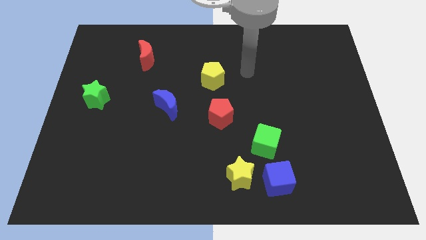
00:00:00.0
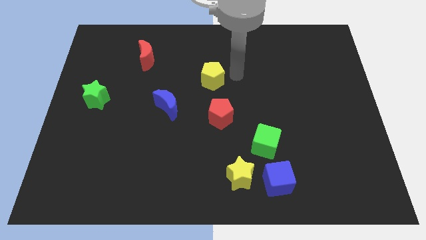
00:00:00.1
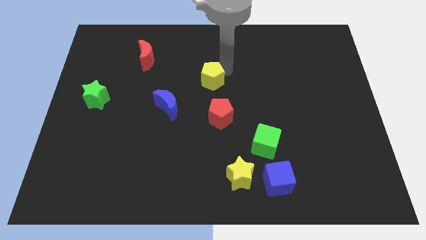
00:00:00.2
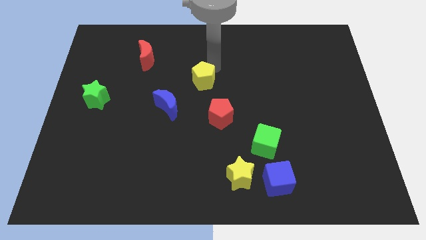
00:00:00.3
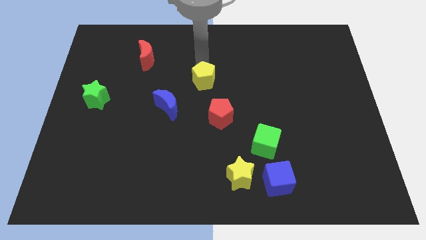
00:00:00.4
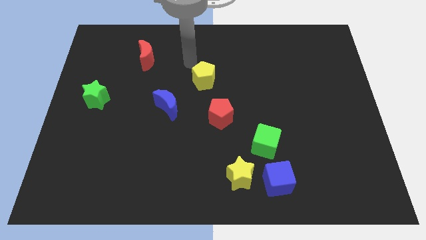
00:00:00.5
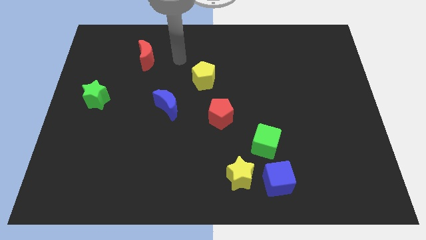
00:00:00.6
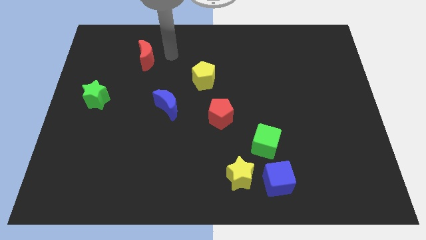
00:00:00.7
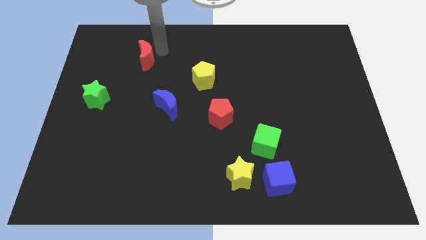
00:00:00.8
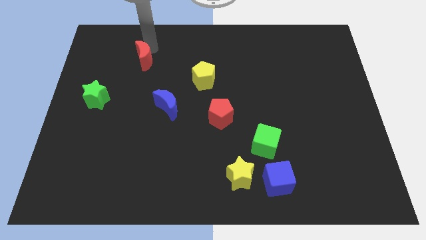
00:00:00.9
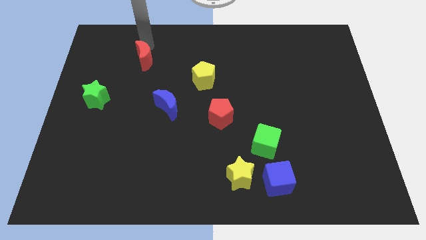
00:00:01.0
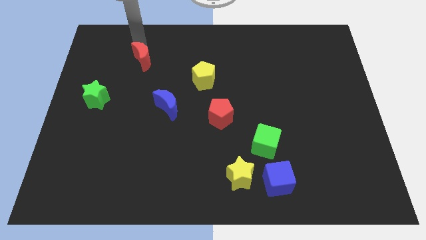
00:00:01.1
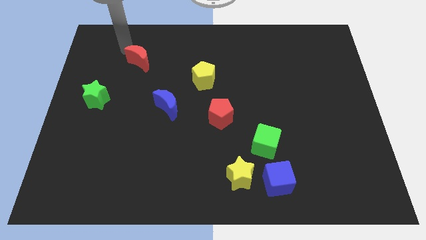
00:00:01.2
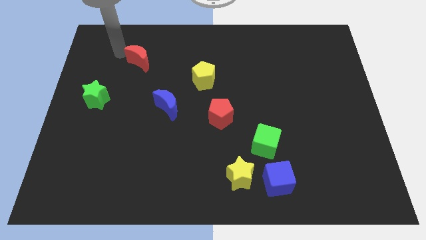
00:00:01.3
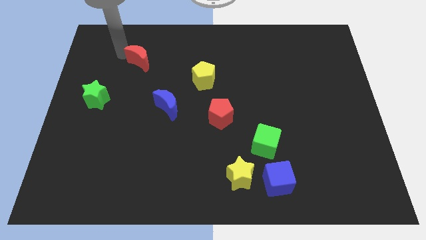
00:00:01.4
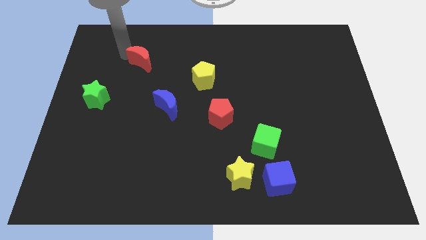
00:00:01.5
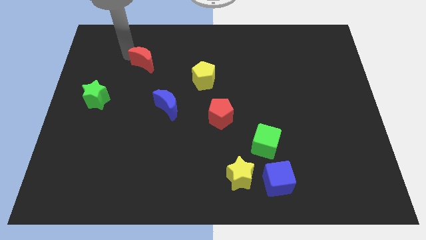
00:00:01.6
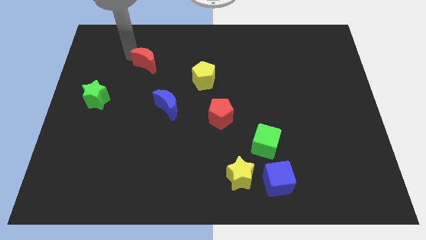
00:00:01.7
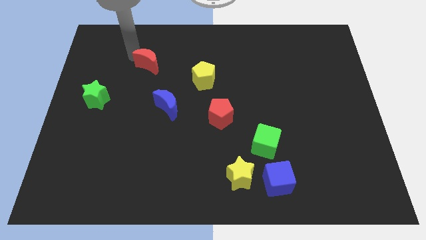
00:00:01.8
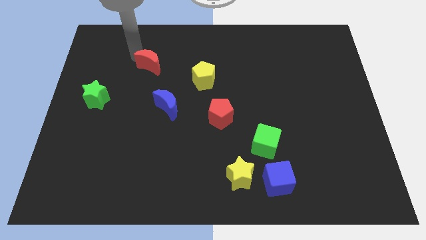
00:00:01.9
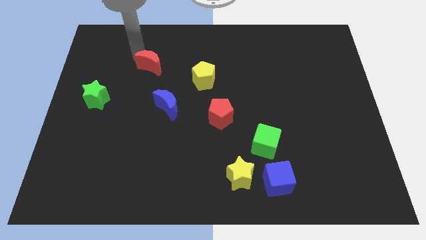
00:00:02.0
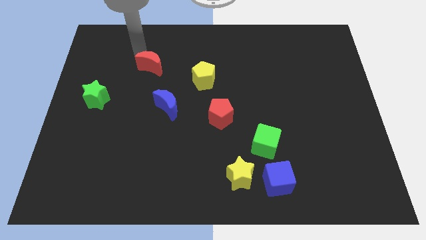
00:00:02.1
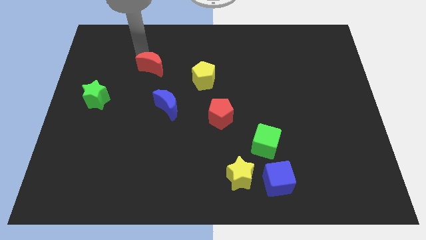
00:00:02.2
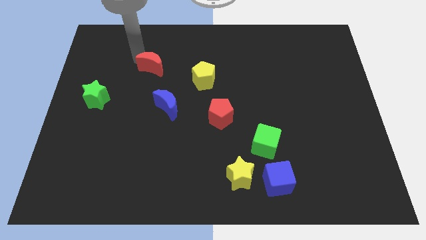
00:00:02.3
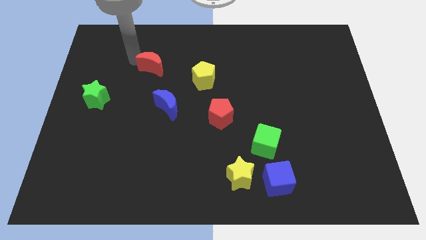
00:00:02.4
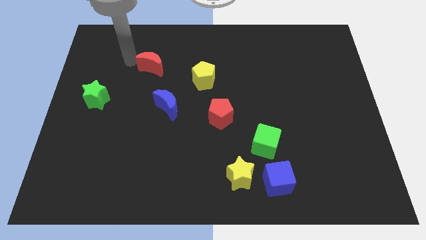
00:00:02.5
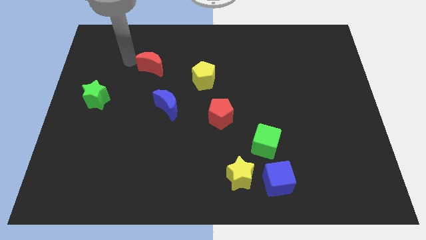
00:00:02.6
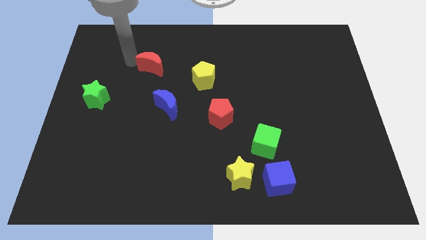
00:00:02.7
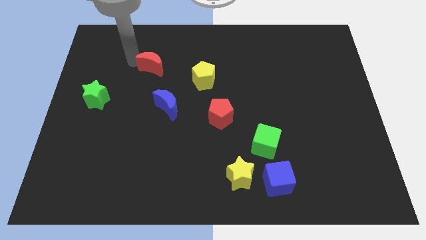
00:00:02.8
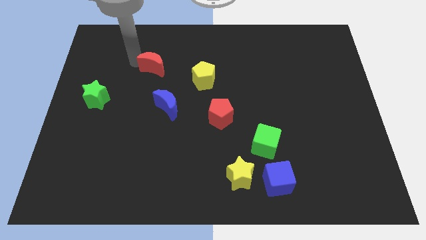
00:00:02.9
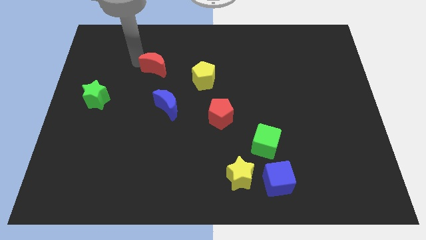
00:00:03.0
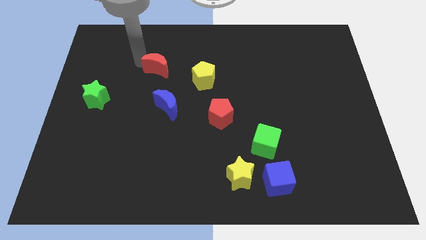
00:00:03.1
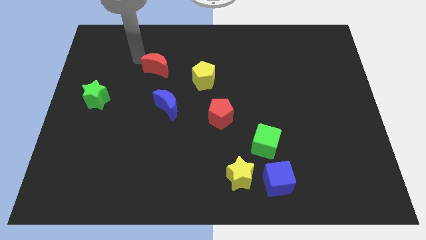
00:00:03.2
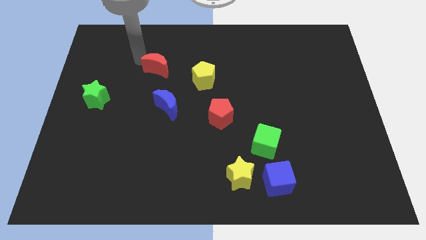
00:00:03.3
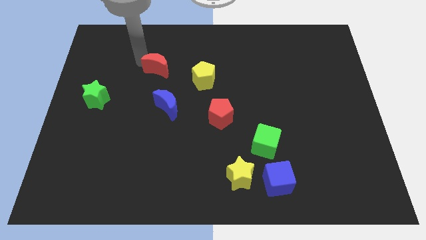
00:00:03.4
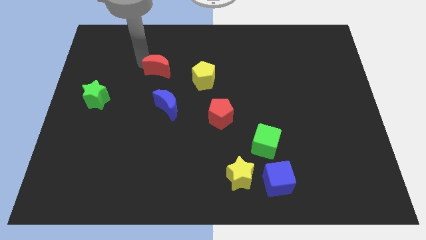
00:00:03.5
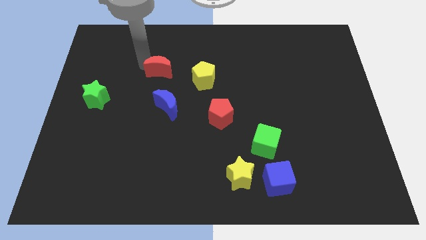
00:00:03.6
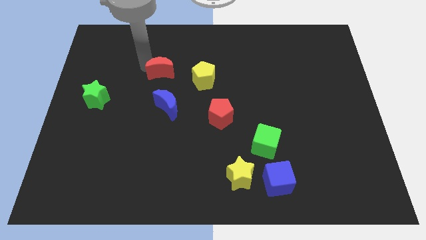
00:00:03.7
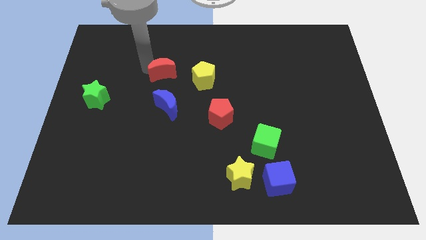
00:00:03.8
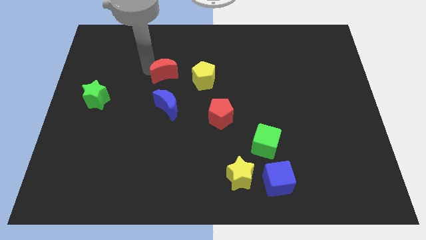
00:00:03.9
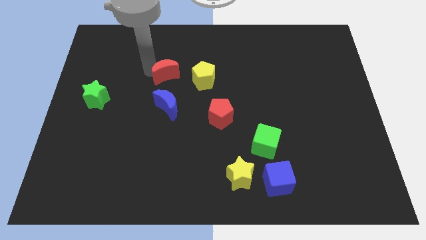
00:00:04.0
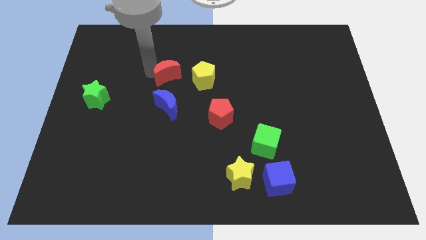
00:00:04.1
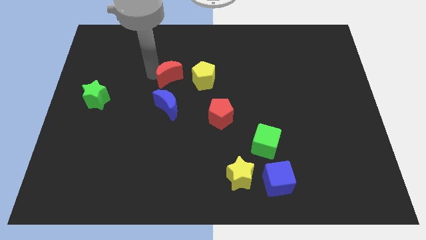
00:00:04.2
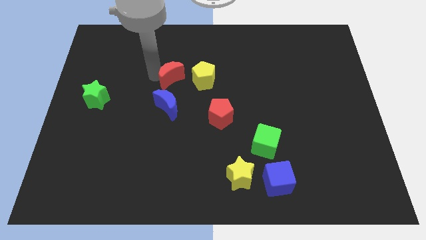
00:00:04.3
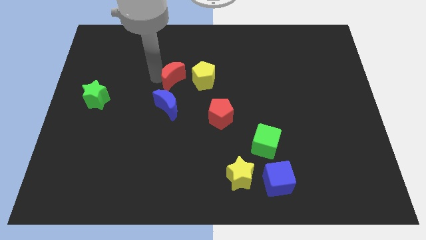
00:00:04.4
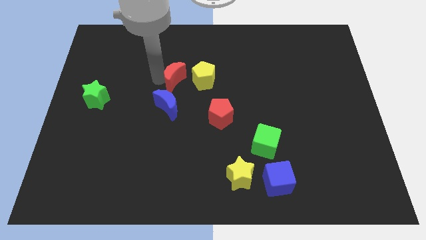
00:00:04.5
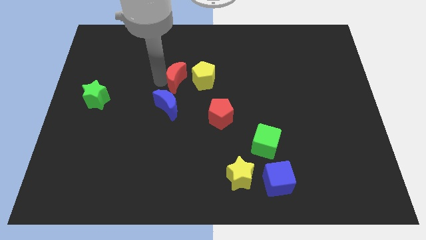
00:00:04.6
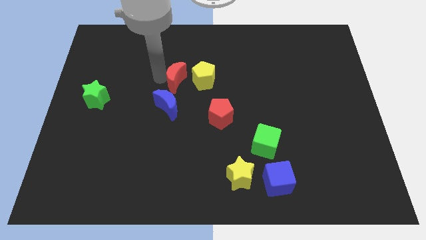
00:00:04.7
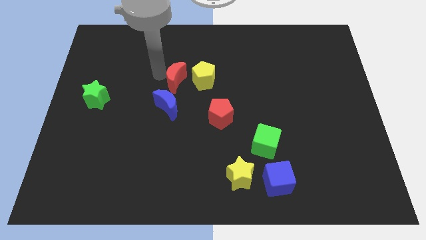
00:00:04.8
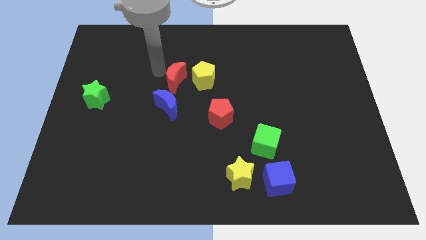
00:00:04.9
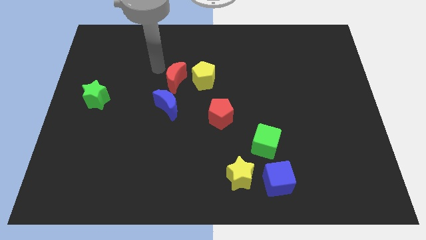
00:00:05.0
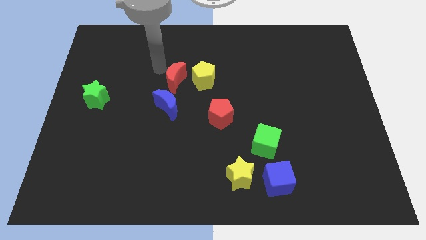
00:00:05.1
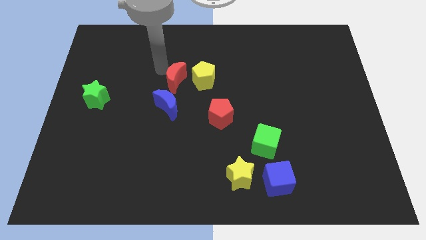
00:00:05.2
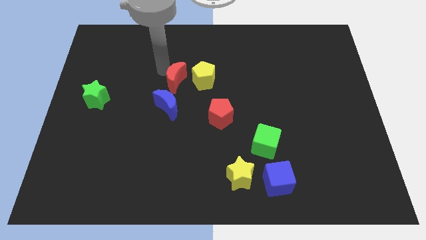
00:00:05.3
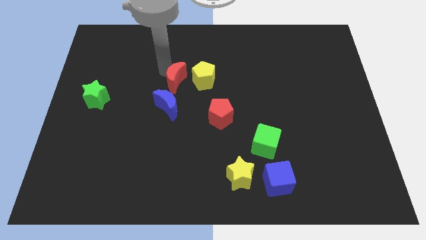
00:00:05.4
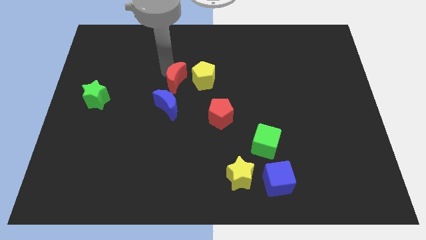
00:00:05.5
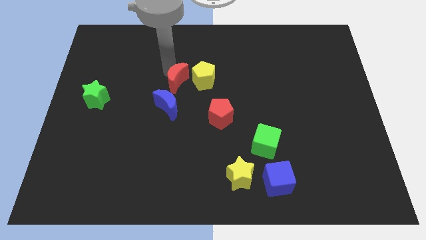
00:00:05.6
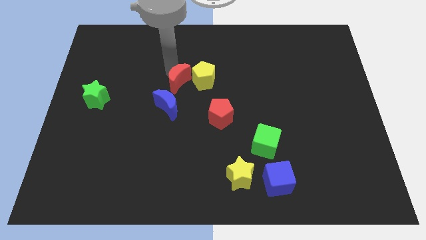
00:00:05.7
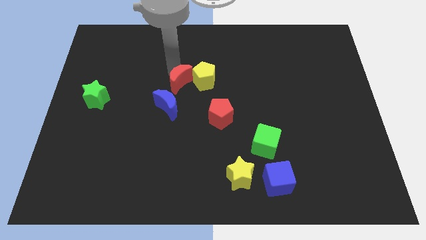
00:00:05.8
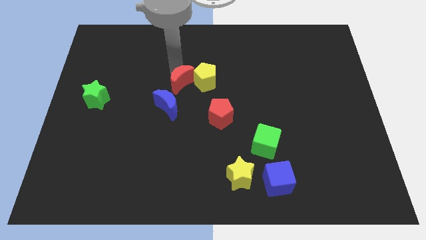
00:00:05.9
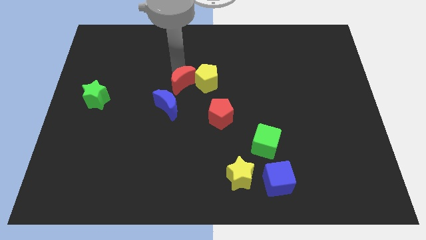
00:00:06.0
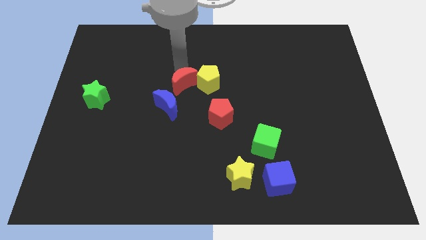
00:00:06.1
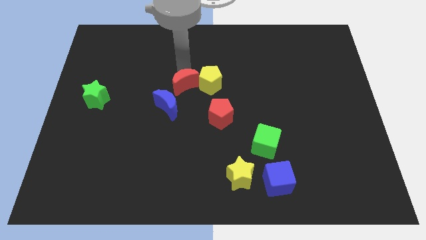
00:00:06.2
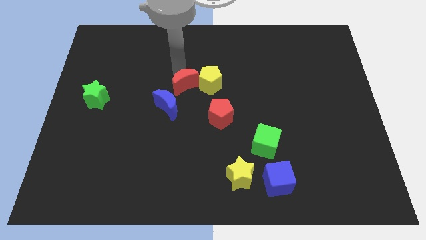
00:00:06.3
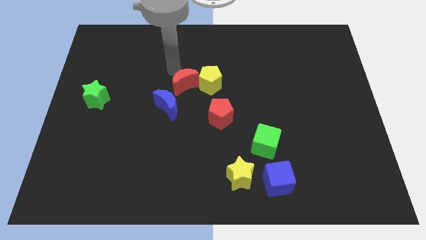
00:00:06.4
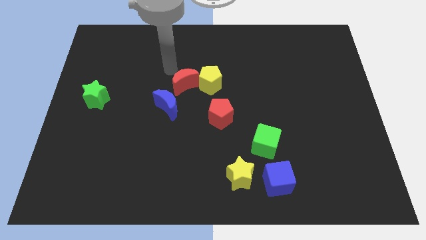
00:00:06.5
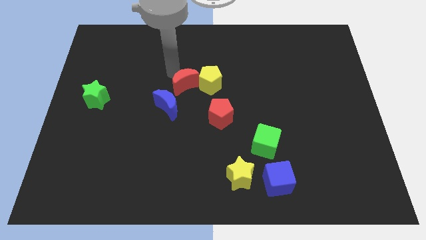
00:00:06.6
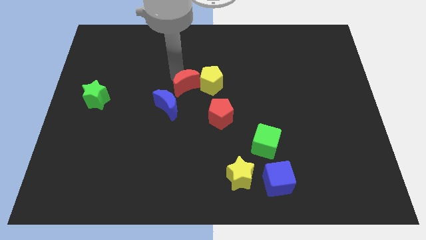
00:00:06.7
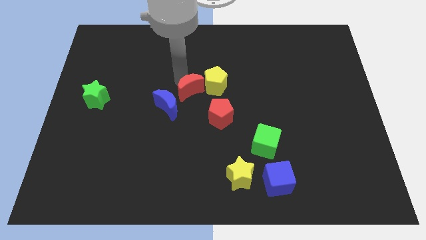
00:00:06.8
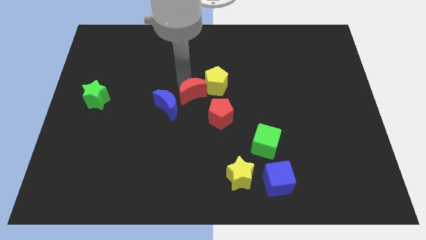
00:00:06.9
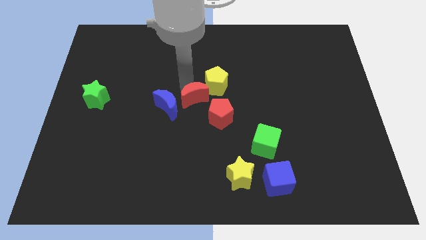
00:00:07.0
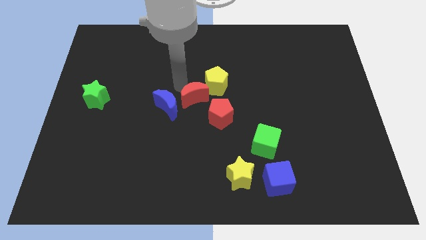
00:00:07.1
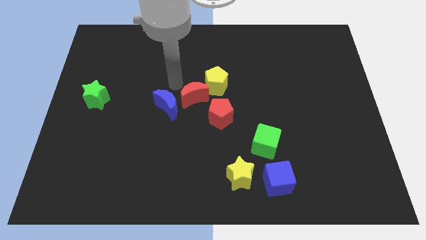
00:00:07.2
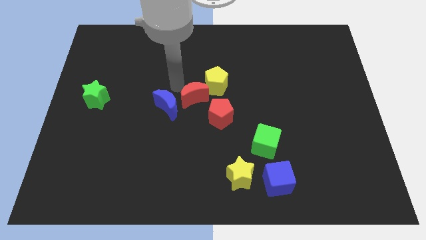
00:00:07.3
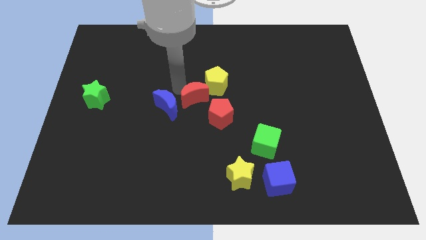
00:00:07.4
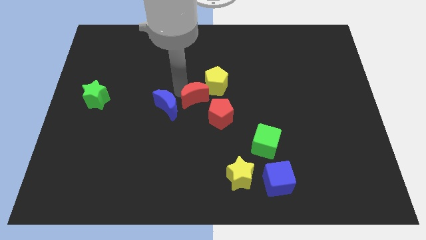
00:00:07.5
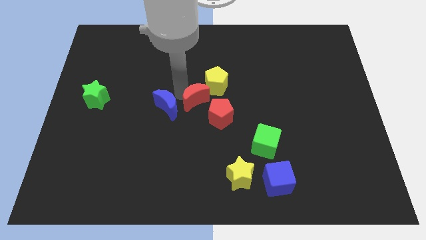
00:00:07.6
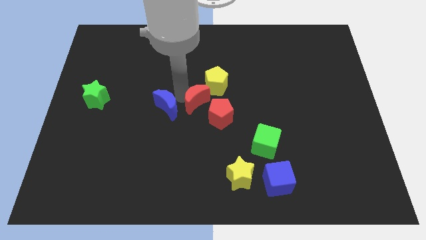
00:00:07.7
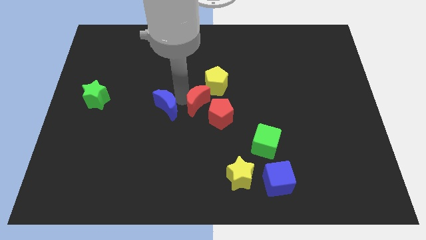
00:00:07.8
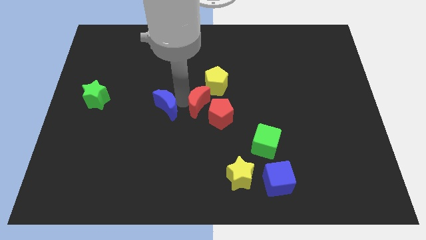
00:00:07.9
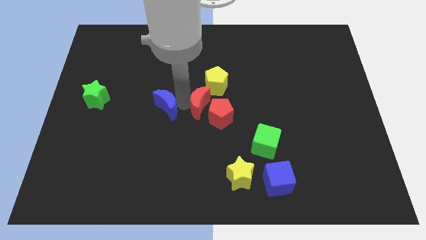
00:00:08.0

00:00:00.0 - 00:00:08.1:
push the red moon close to the red pentagon
